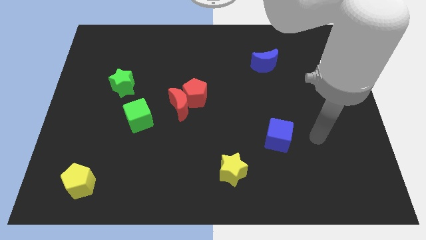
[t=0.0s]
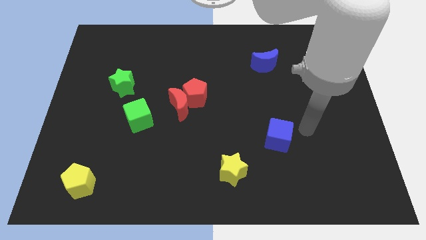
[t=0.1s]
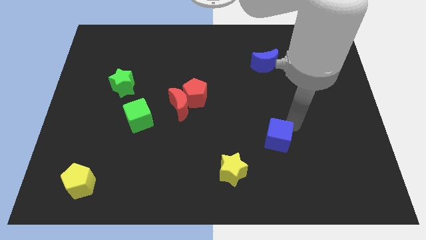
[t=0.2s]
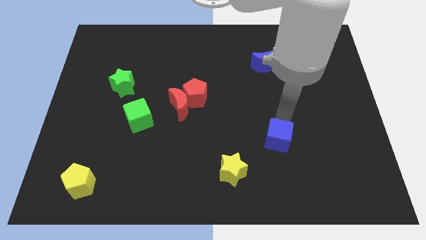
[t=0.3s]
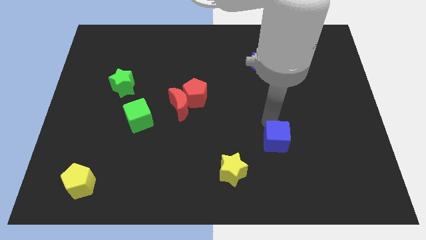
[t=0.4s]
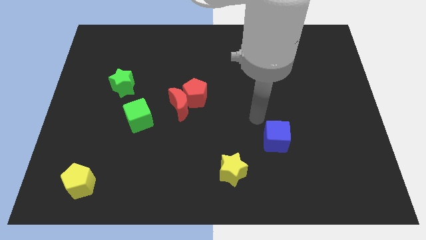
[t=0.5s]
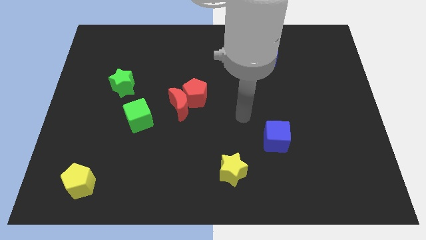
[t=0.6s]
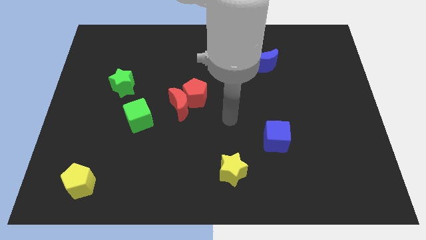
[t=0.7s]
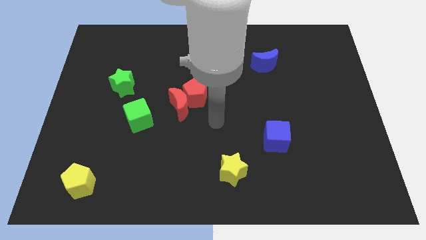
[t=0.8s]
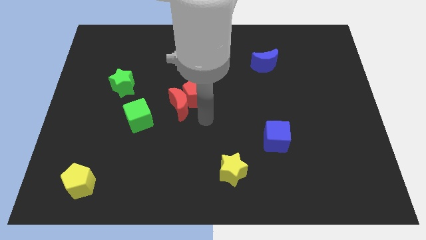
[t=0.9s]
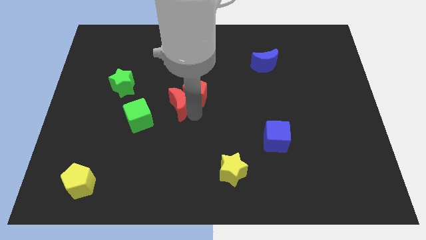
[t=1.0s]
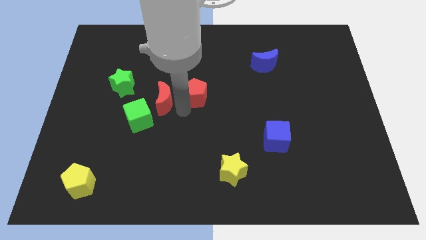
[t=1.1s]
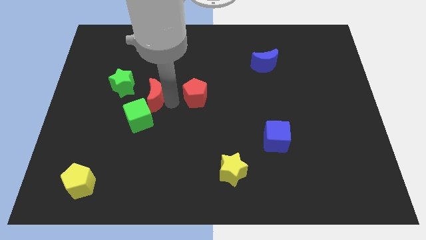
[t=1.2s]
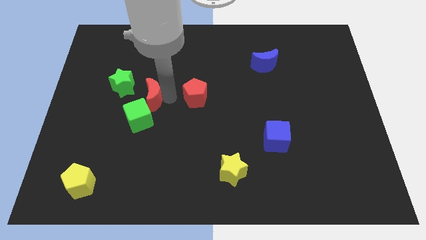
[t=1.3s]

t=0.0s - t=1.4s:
move the red pentagon away from the red moon

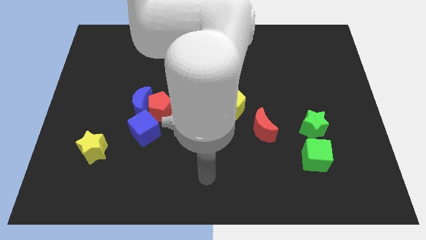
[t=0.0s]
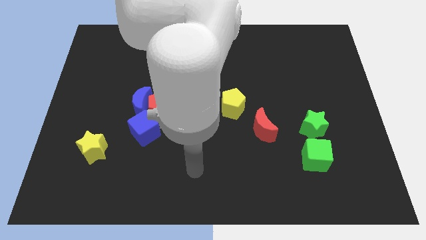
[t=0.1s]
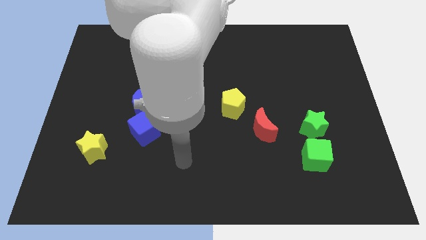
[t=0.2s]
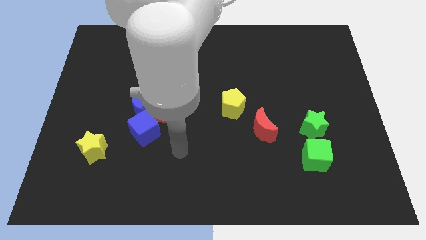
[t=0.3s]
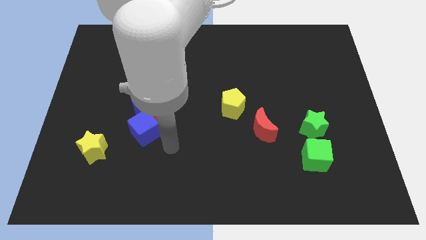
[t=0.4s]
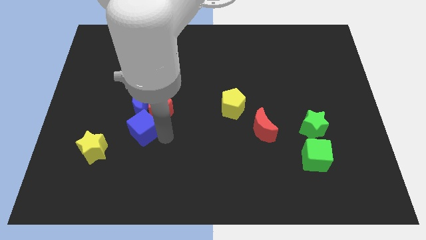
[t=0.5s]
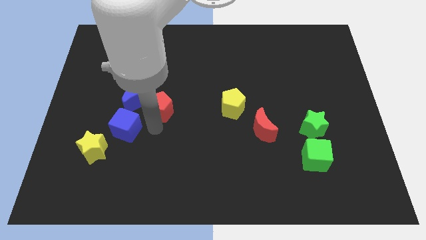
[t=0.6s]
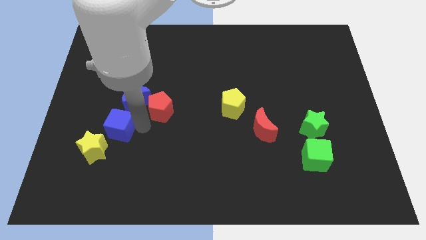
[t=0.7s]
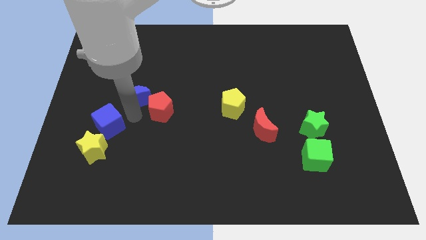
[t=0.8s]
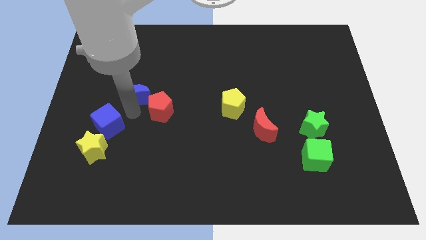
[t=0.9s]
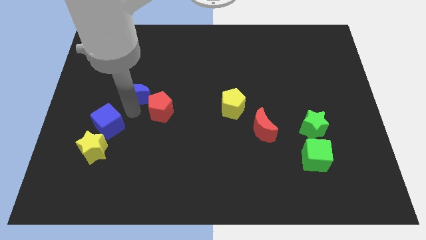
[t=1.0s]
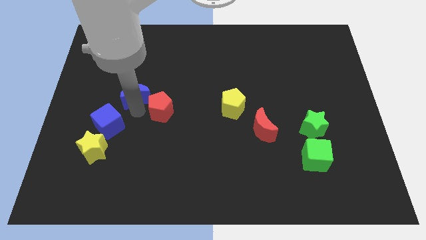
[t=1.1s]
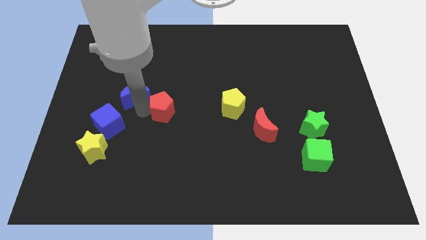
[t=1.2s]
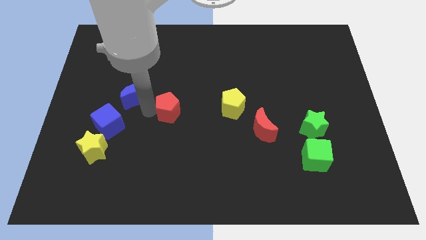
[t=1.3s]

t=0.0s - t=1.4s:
move the red pentagon away from the blue moon and blue cube

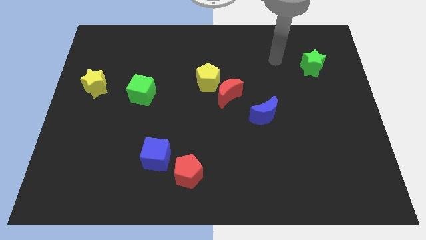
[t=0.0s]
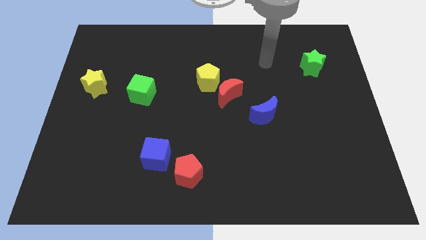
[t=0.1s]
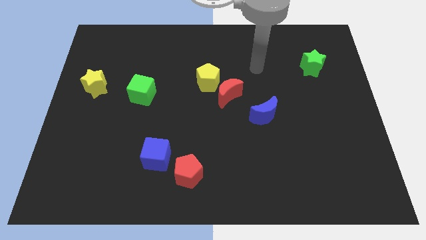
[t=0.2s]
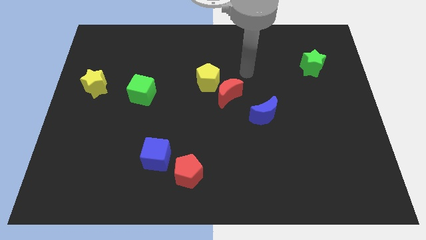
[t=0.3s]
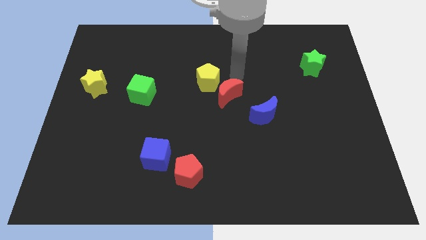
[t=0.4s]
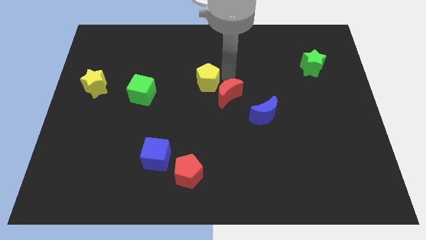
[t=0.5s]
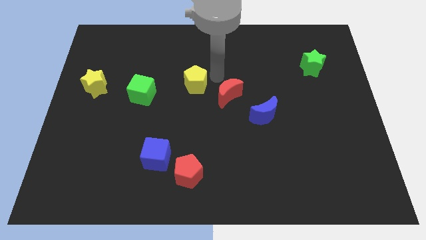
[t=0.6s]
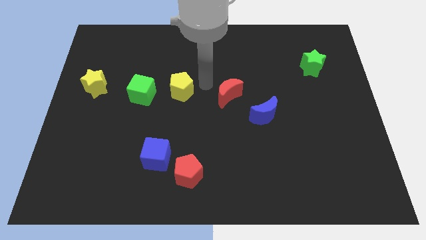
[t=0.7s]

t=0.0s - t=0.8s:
separate the red moon from the yellow pentagon

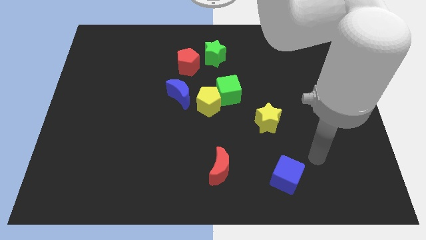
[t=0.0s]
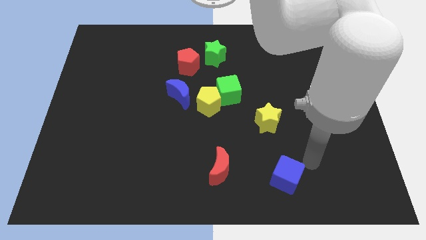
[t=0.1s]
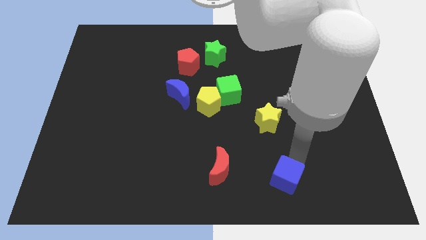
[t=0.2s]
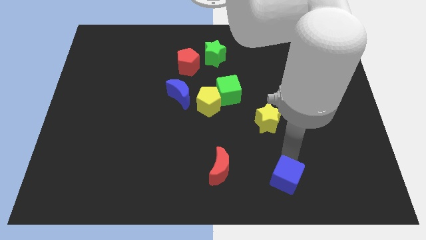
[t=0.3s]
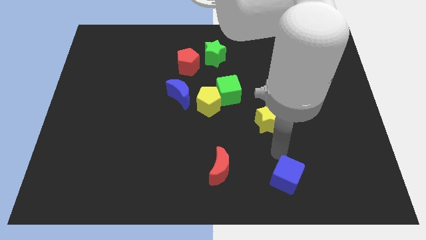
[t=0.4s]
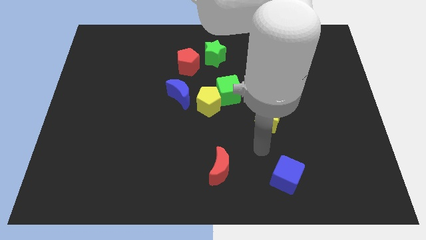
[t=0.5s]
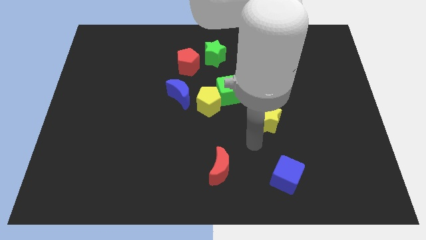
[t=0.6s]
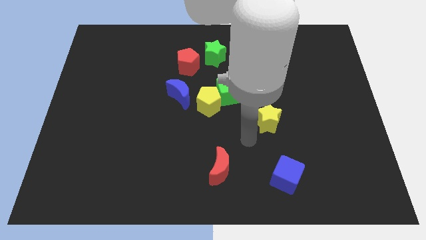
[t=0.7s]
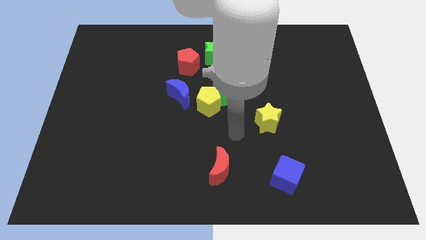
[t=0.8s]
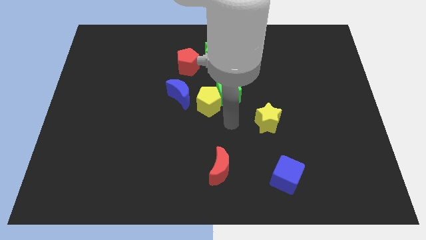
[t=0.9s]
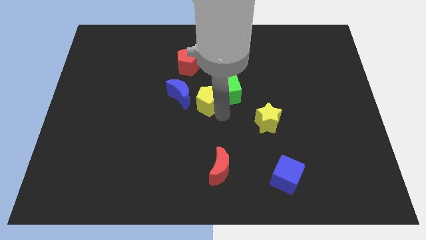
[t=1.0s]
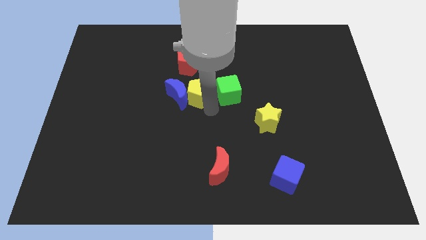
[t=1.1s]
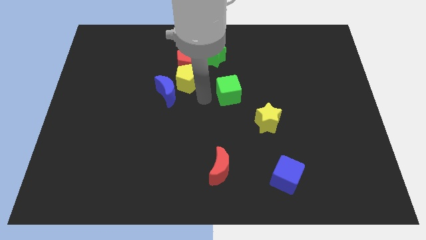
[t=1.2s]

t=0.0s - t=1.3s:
move the green cube away from the yellow pentagon

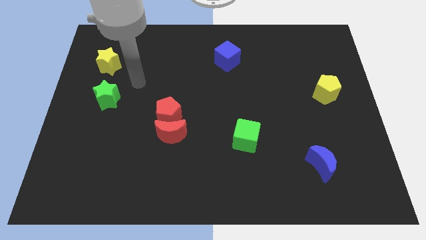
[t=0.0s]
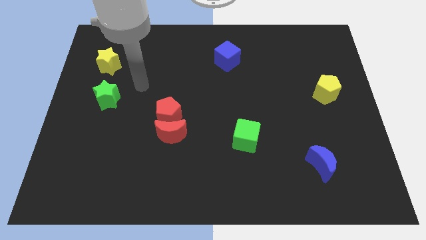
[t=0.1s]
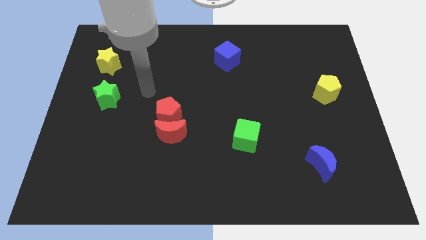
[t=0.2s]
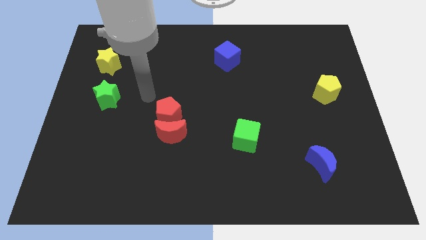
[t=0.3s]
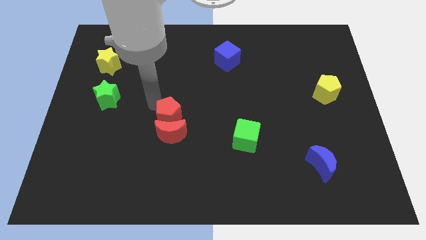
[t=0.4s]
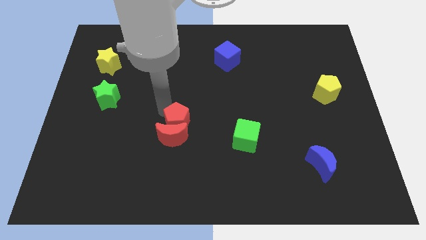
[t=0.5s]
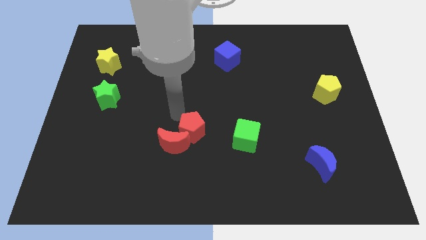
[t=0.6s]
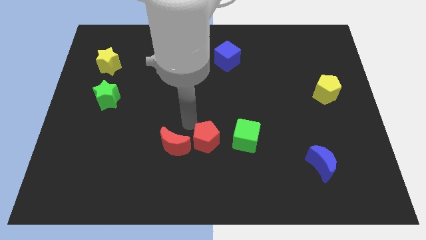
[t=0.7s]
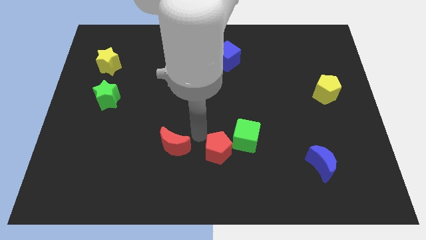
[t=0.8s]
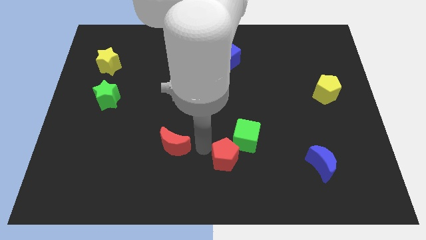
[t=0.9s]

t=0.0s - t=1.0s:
separate the red moon from the red pentagon

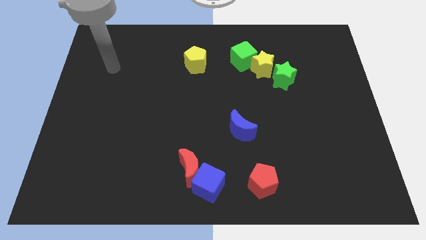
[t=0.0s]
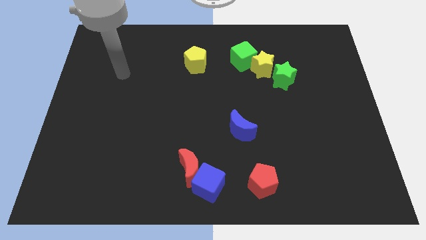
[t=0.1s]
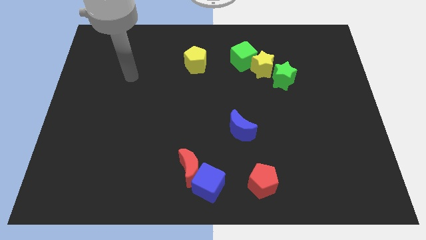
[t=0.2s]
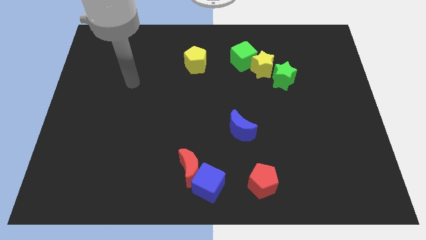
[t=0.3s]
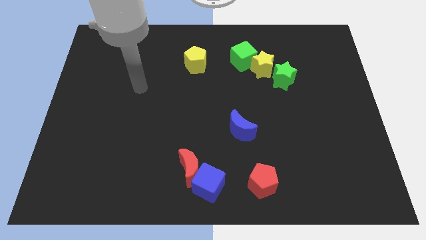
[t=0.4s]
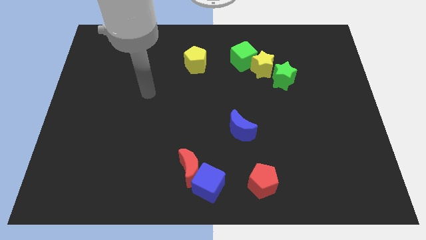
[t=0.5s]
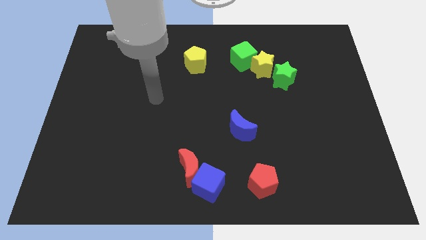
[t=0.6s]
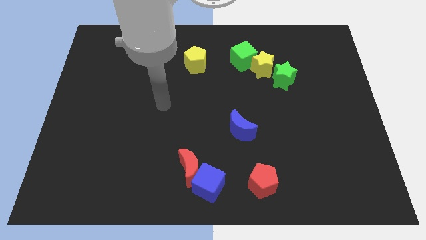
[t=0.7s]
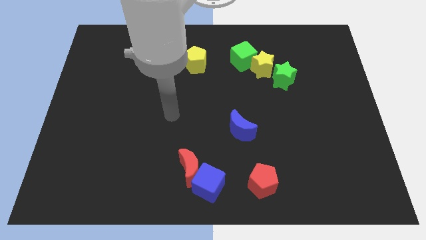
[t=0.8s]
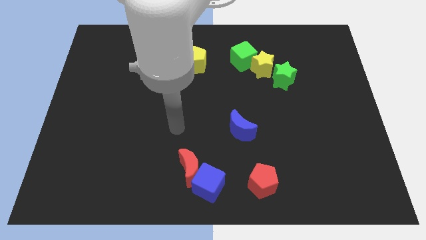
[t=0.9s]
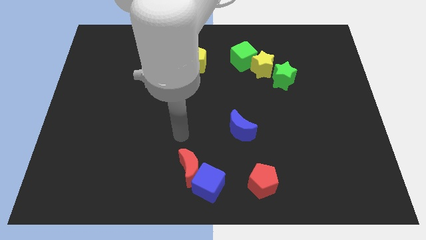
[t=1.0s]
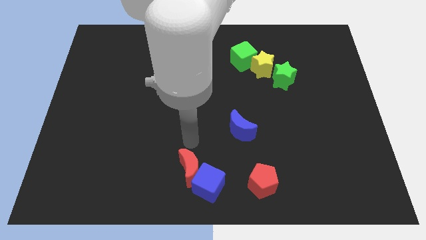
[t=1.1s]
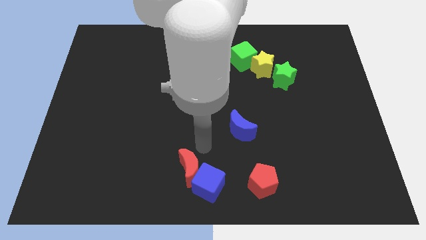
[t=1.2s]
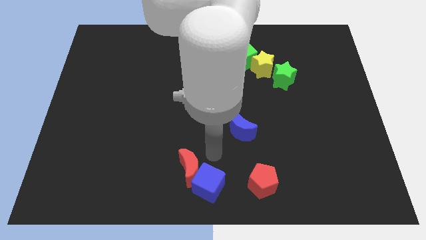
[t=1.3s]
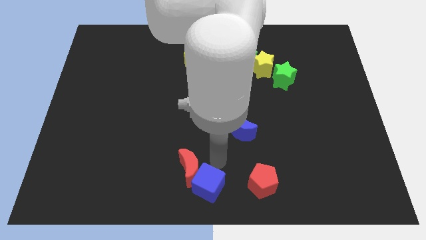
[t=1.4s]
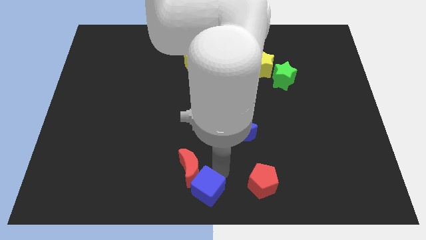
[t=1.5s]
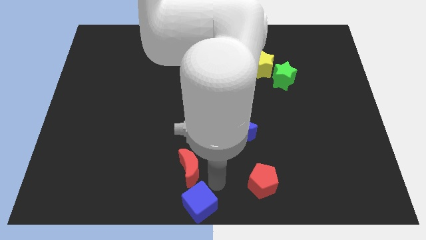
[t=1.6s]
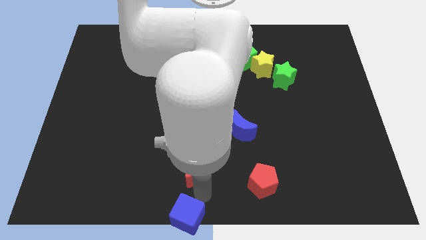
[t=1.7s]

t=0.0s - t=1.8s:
move the red moon away from the blue cube

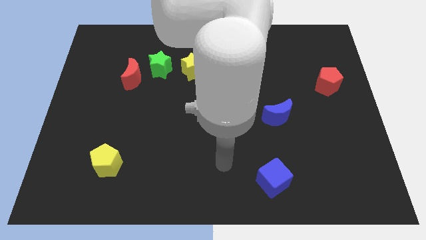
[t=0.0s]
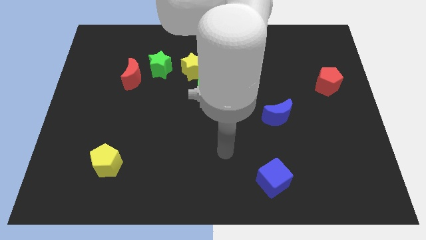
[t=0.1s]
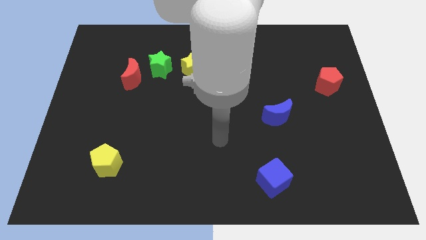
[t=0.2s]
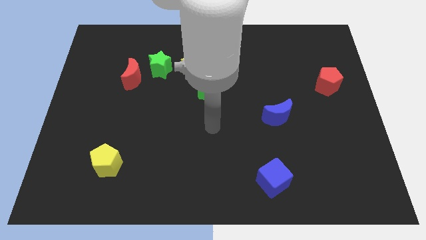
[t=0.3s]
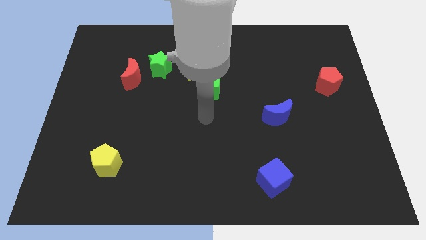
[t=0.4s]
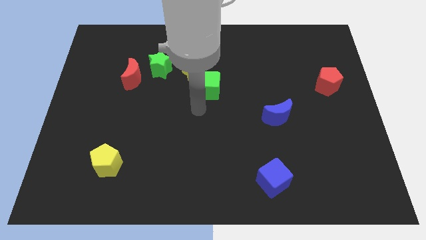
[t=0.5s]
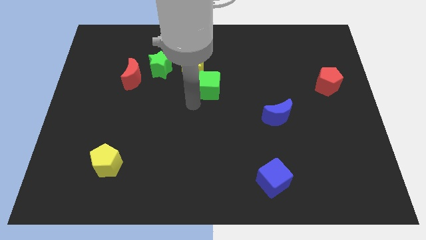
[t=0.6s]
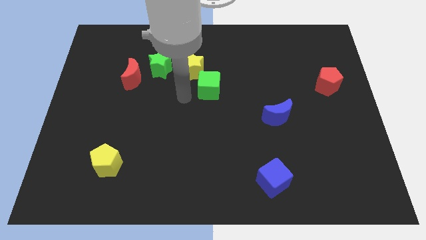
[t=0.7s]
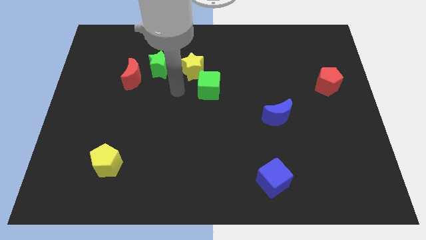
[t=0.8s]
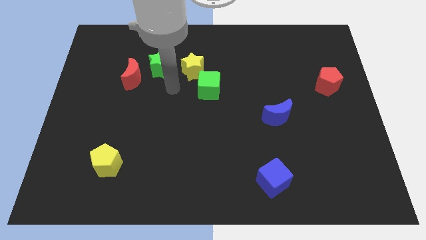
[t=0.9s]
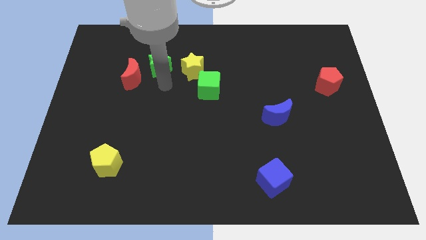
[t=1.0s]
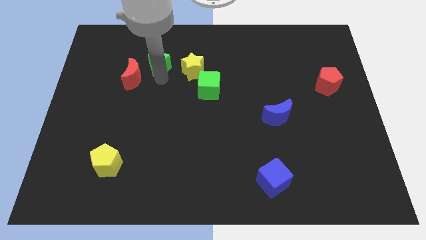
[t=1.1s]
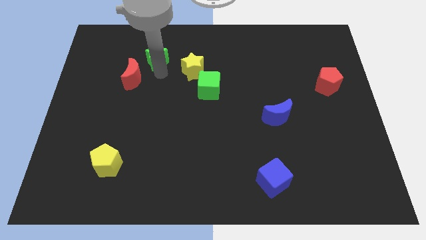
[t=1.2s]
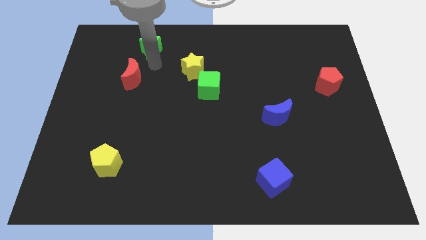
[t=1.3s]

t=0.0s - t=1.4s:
separate the red moon from the green star

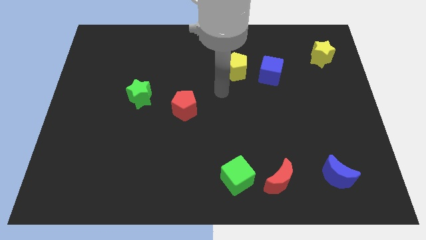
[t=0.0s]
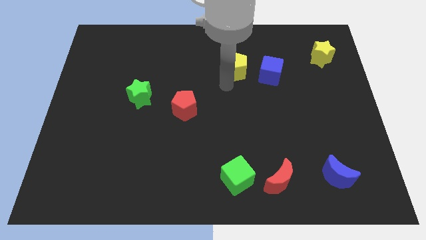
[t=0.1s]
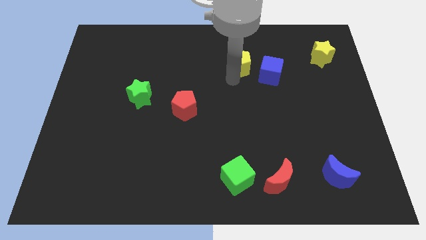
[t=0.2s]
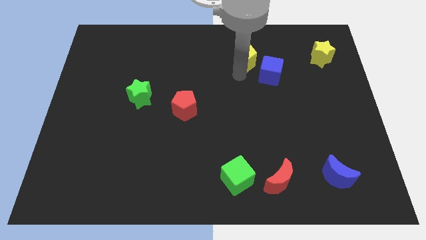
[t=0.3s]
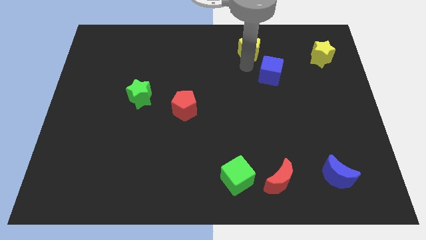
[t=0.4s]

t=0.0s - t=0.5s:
separate the blue cube from the yellow pentagon
